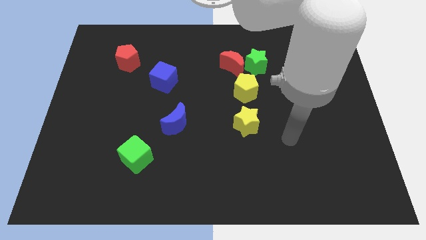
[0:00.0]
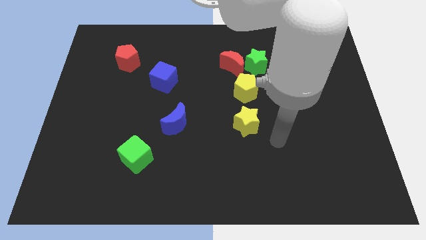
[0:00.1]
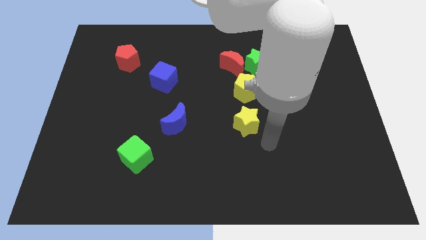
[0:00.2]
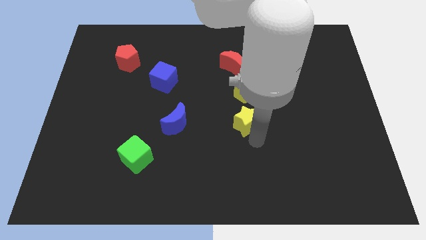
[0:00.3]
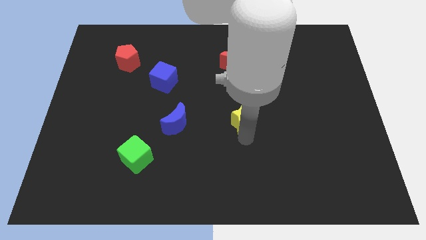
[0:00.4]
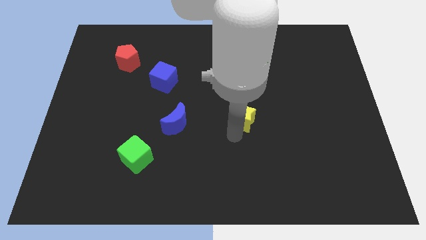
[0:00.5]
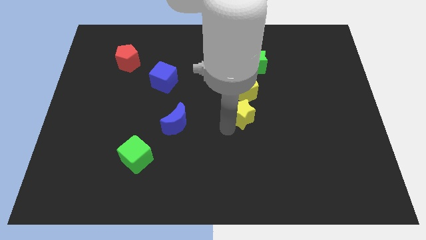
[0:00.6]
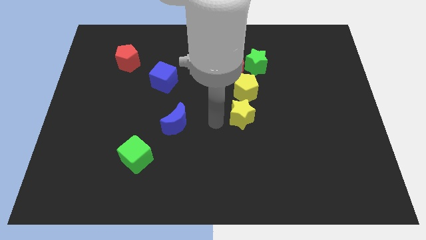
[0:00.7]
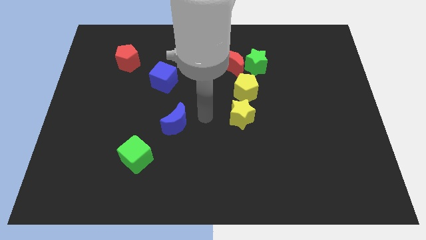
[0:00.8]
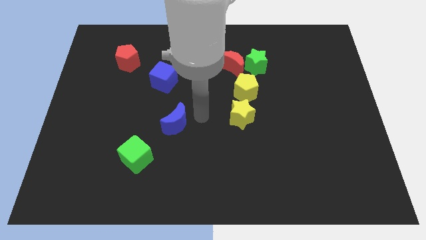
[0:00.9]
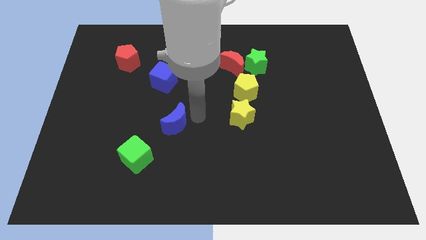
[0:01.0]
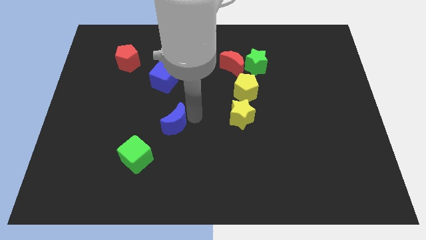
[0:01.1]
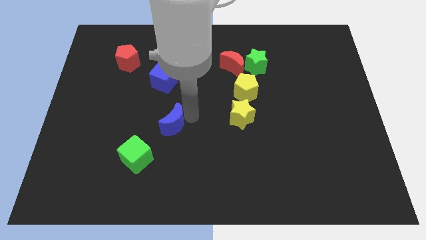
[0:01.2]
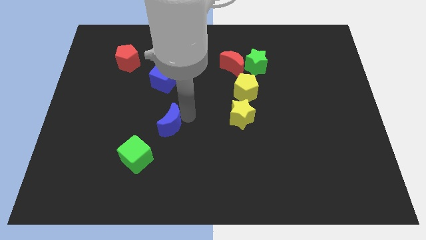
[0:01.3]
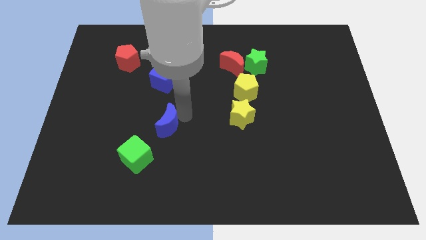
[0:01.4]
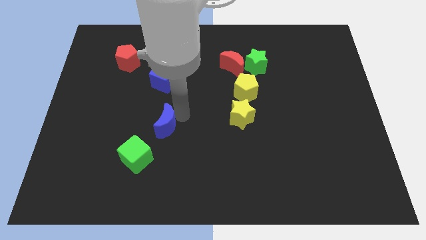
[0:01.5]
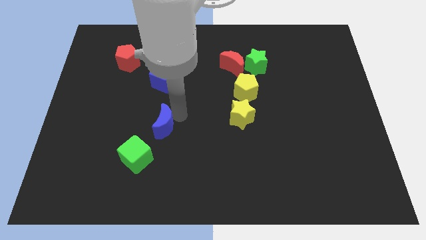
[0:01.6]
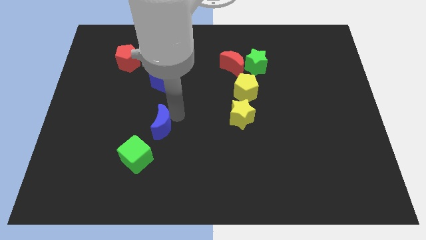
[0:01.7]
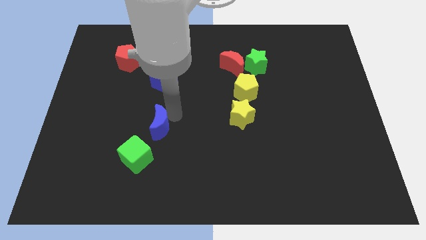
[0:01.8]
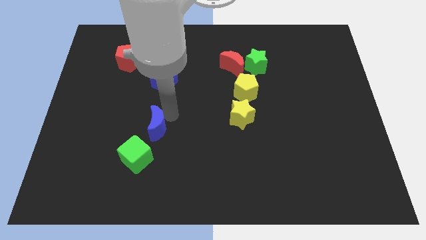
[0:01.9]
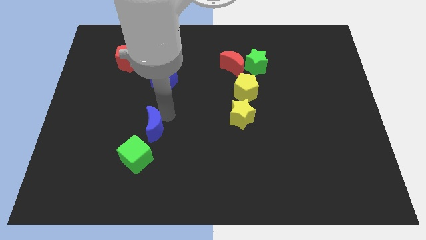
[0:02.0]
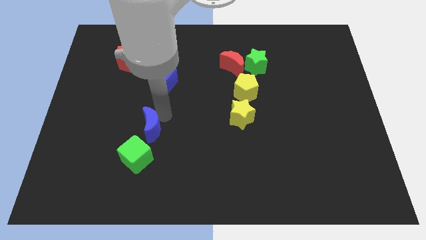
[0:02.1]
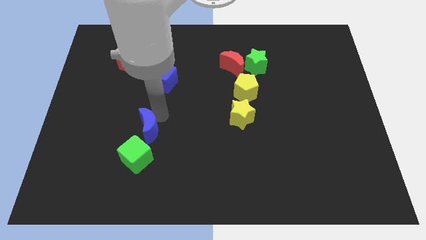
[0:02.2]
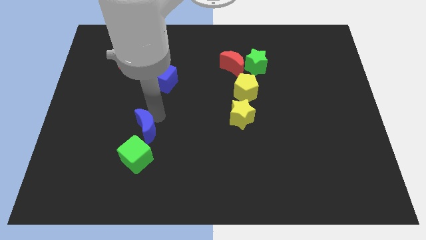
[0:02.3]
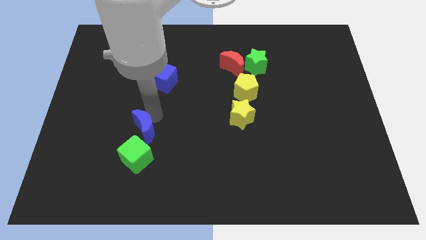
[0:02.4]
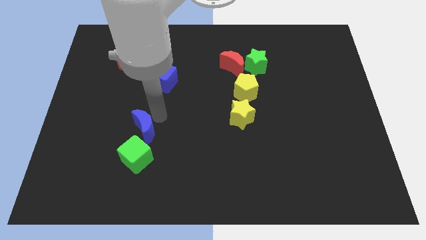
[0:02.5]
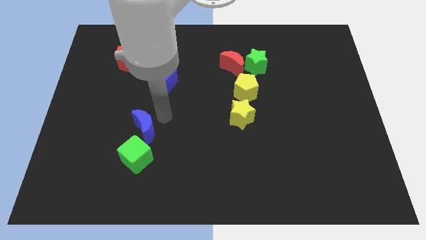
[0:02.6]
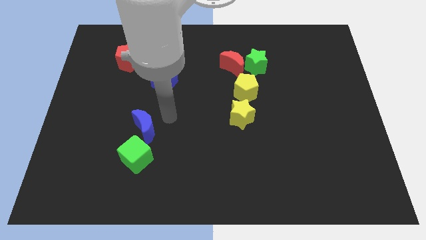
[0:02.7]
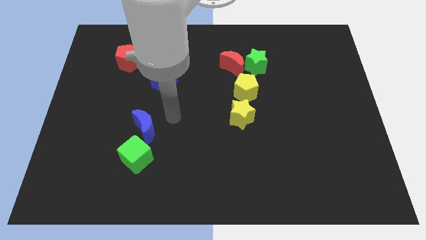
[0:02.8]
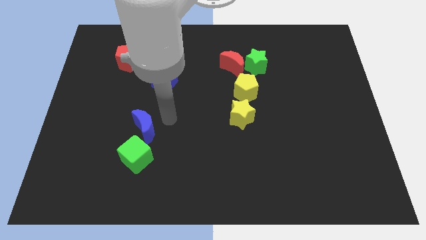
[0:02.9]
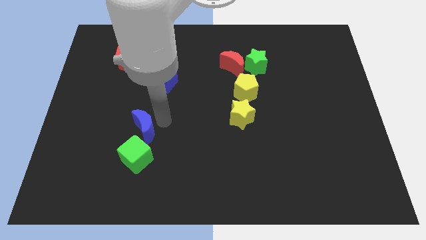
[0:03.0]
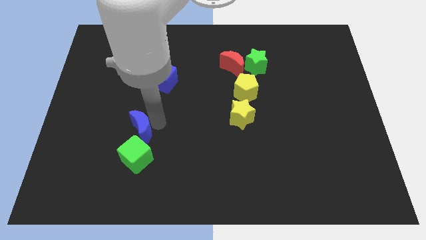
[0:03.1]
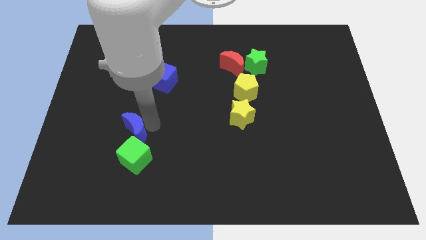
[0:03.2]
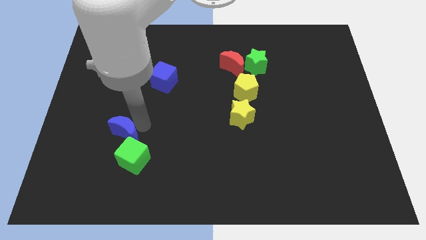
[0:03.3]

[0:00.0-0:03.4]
move the blue moon downwards and to the left diagonally a little

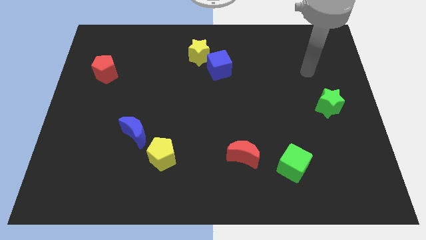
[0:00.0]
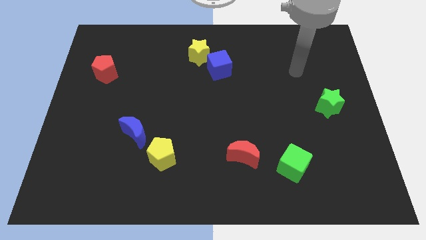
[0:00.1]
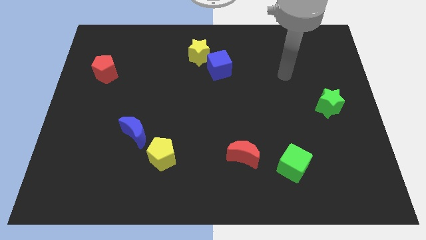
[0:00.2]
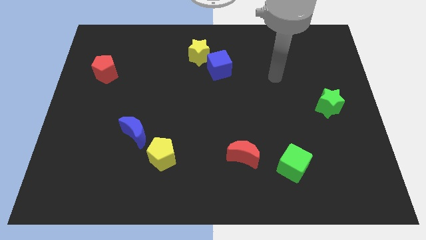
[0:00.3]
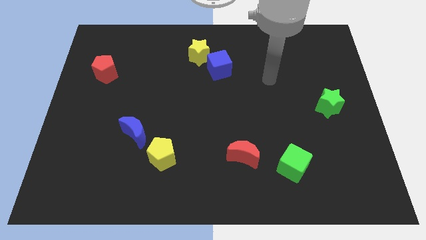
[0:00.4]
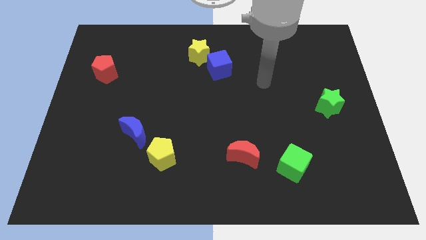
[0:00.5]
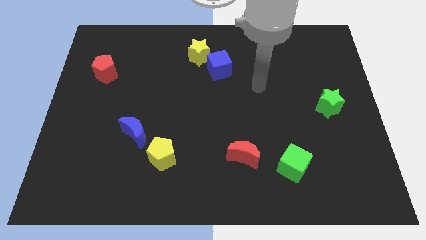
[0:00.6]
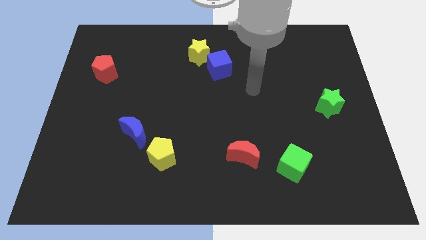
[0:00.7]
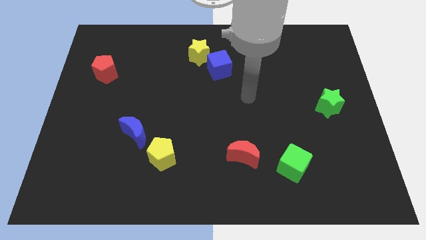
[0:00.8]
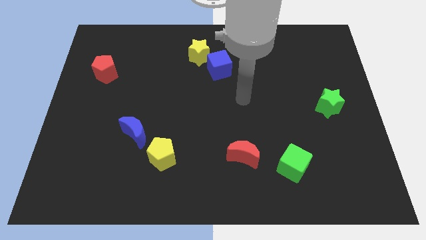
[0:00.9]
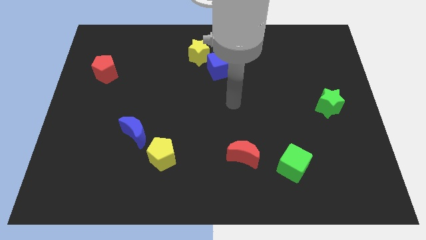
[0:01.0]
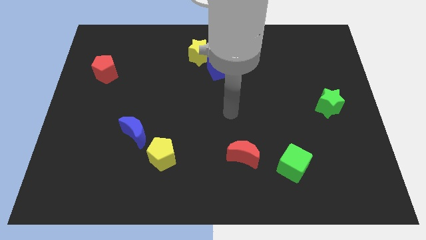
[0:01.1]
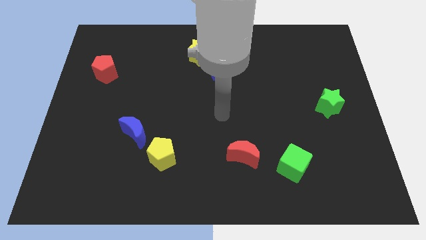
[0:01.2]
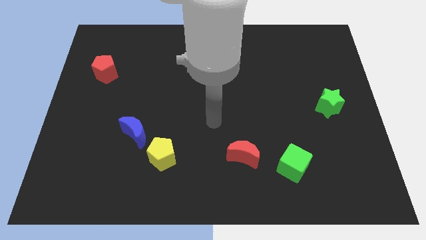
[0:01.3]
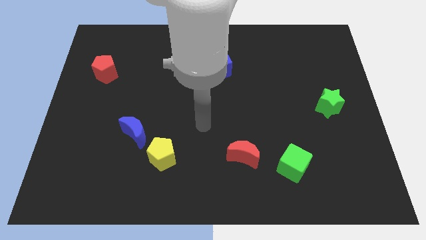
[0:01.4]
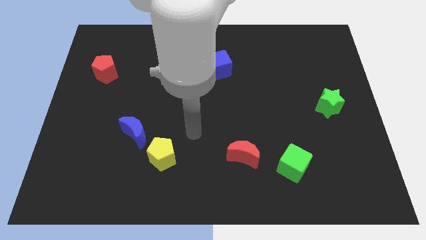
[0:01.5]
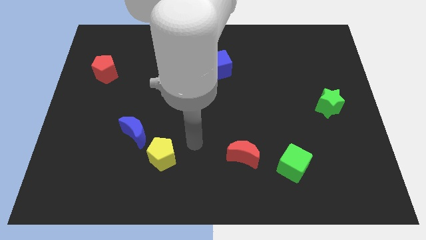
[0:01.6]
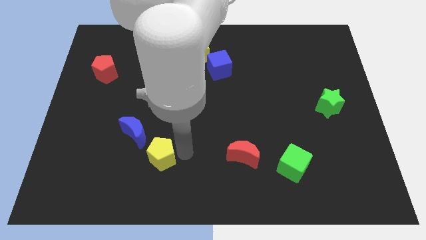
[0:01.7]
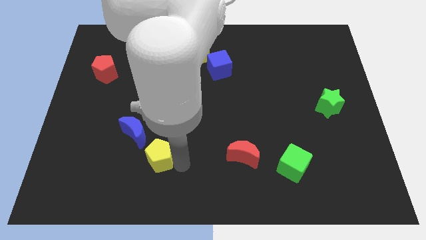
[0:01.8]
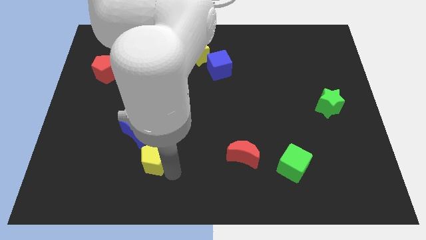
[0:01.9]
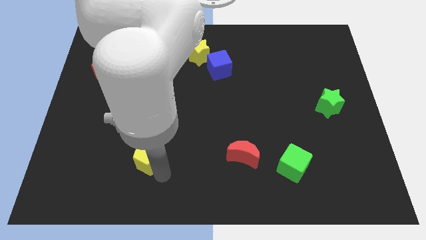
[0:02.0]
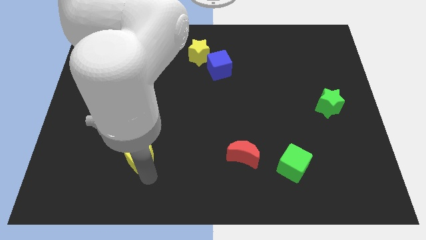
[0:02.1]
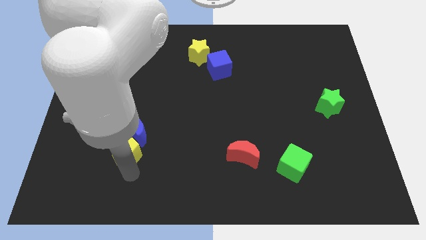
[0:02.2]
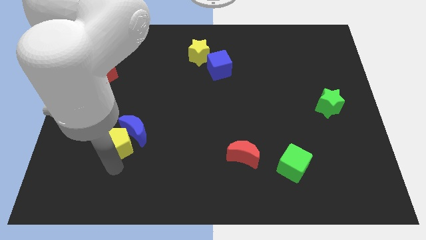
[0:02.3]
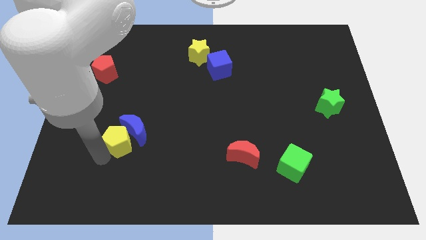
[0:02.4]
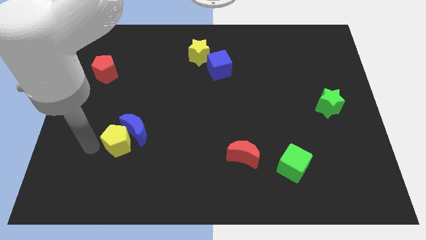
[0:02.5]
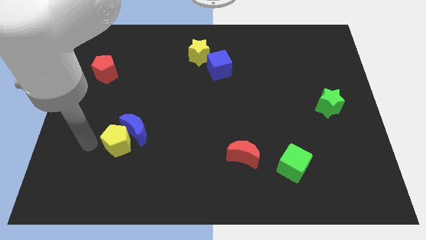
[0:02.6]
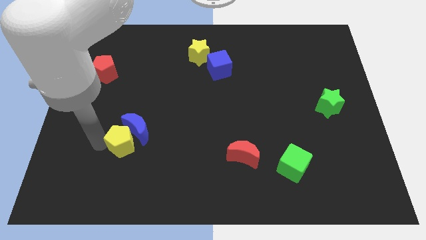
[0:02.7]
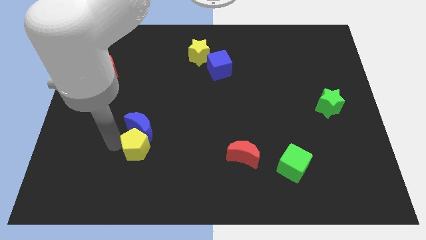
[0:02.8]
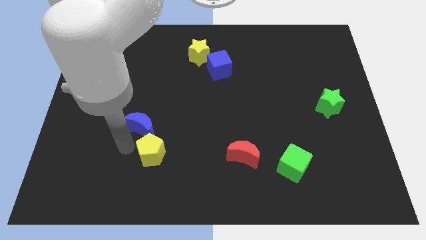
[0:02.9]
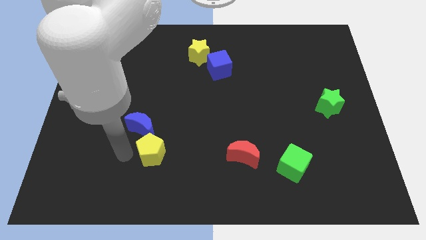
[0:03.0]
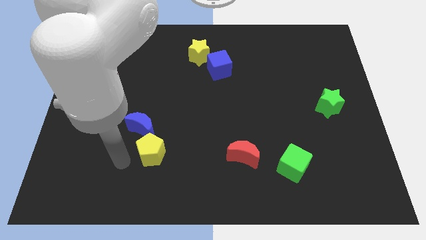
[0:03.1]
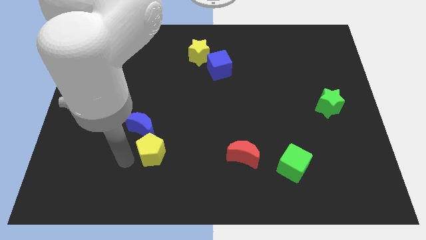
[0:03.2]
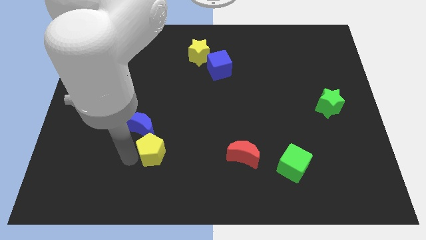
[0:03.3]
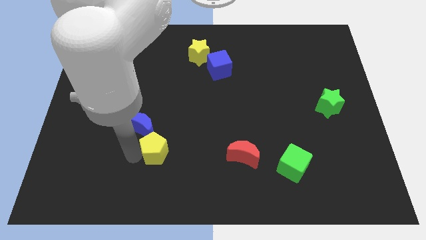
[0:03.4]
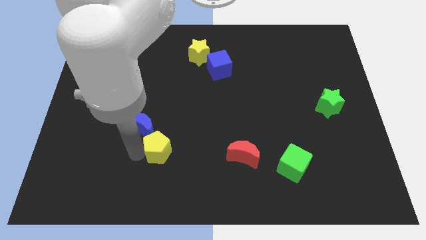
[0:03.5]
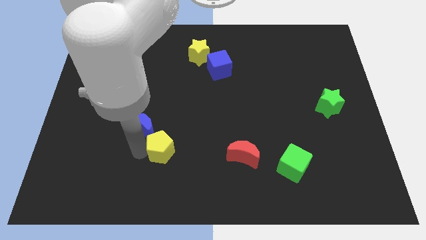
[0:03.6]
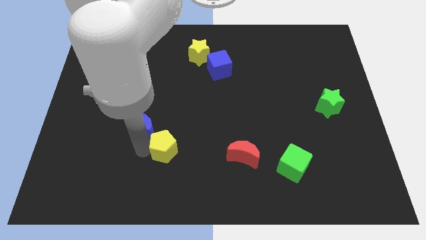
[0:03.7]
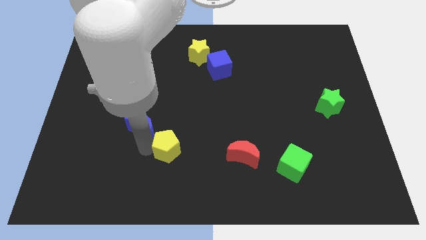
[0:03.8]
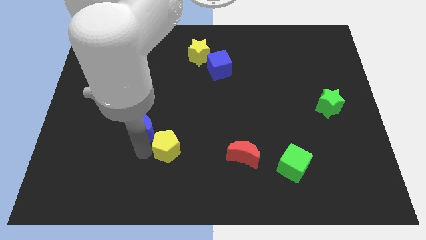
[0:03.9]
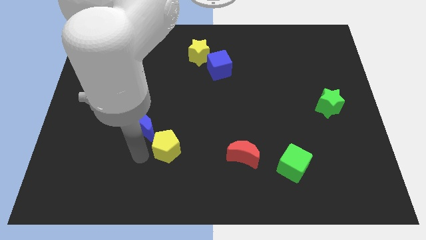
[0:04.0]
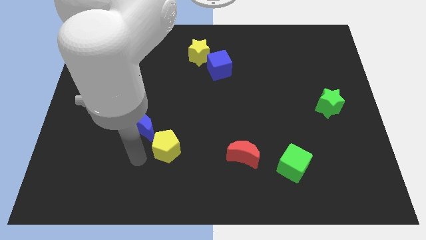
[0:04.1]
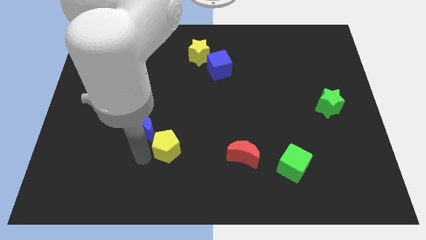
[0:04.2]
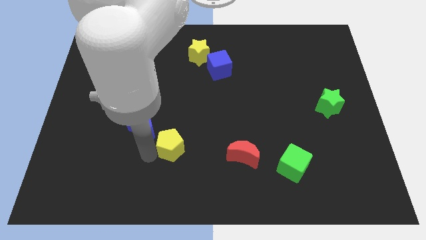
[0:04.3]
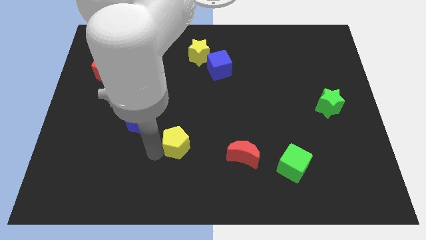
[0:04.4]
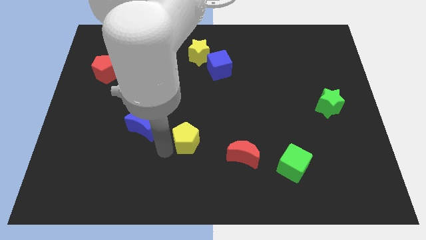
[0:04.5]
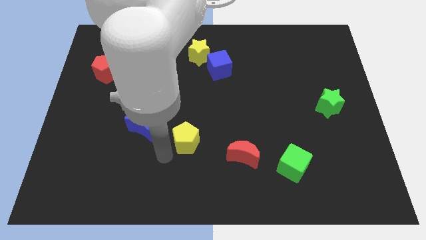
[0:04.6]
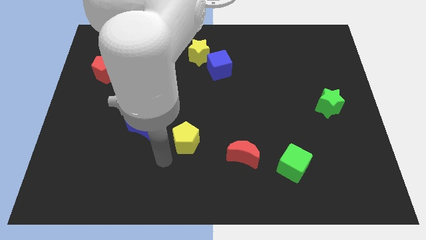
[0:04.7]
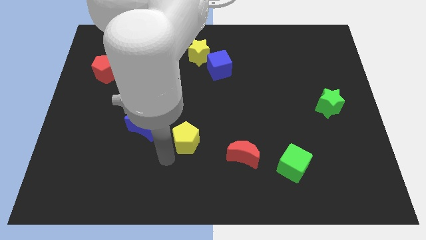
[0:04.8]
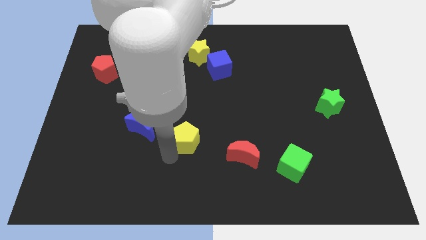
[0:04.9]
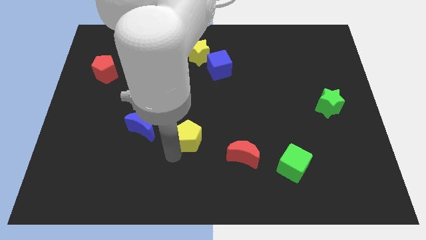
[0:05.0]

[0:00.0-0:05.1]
slide the yellow pentagon a little upwards and right
